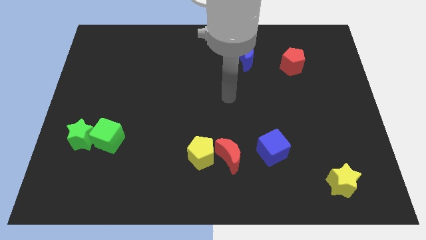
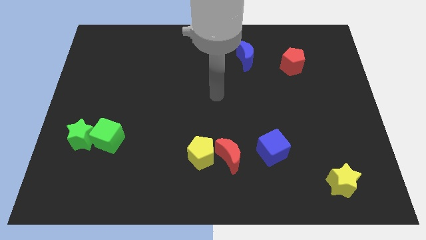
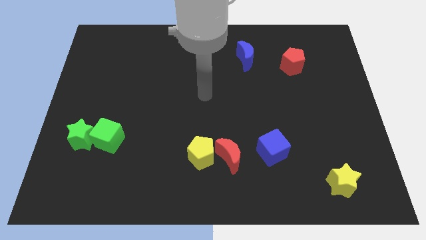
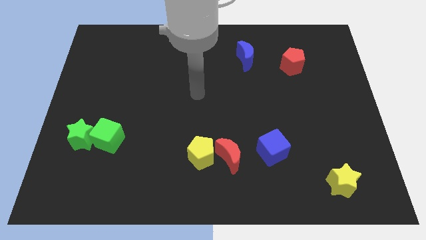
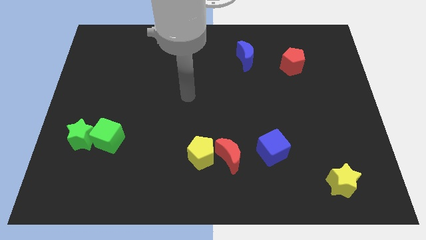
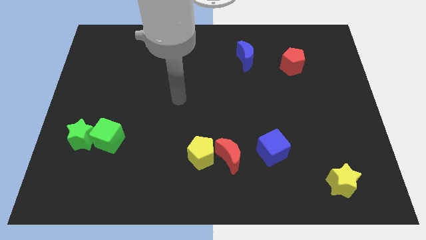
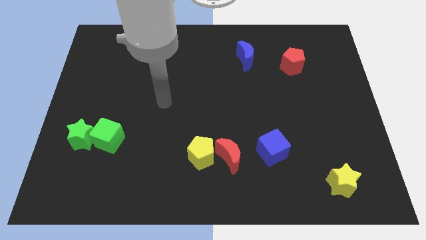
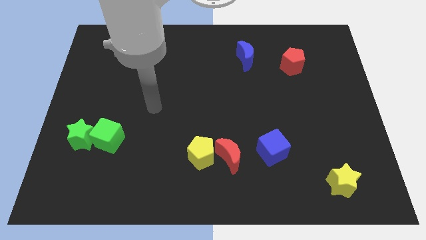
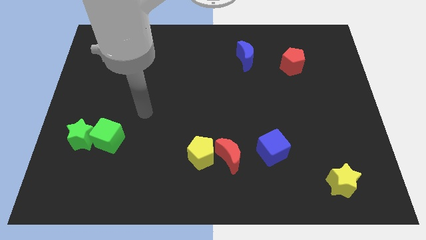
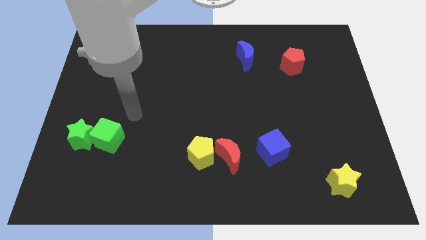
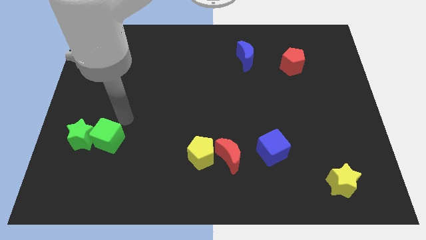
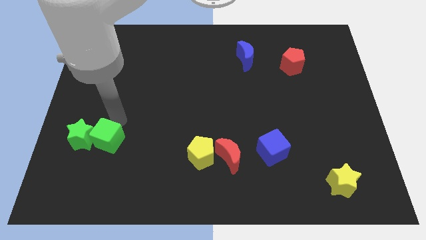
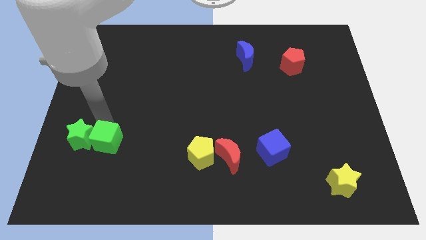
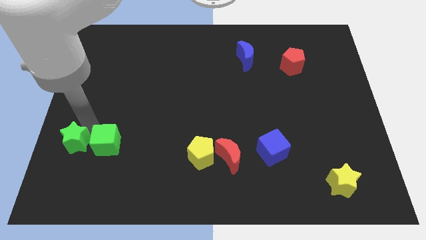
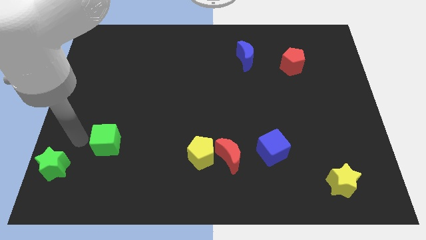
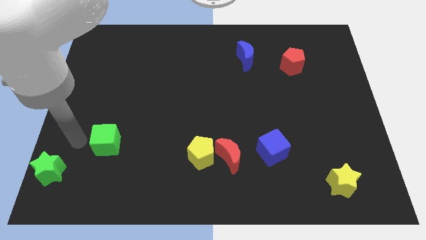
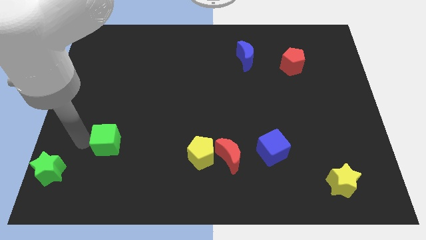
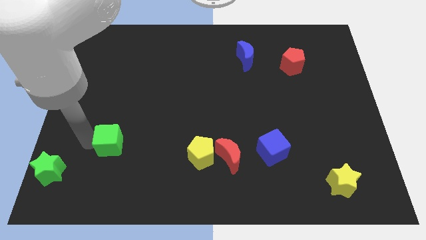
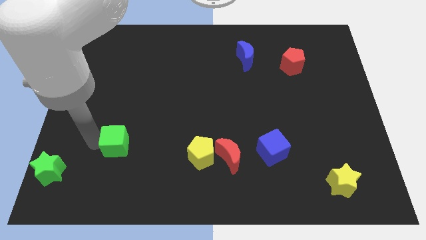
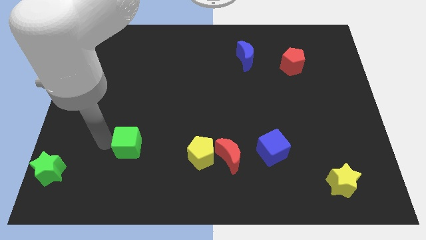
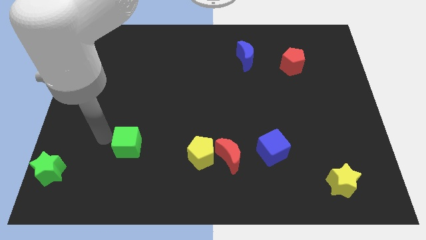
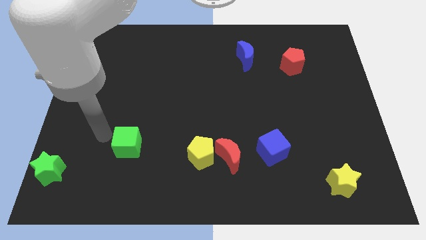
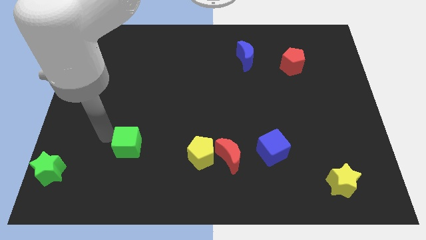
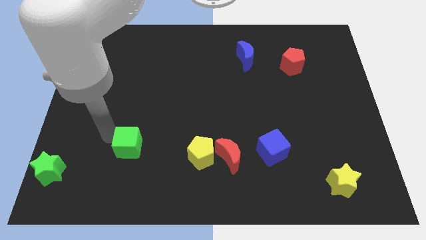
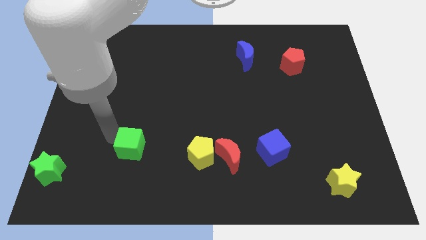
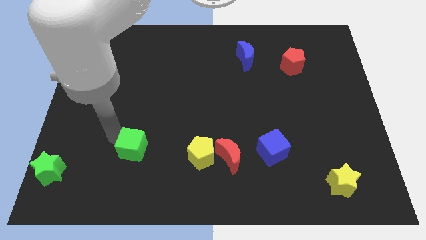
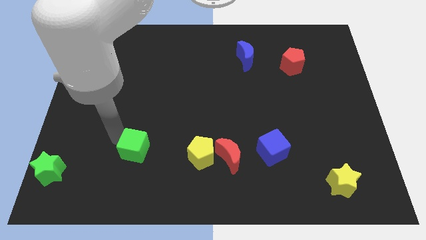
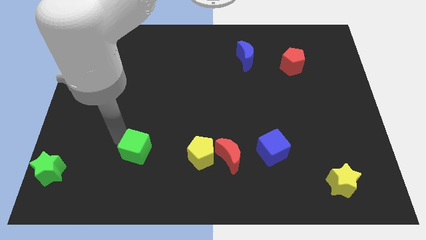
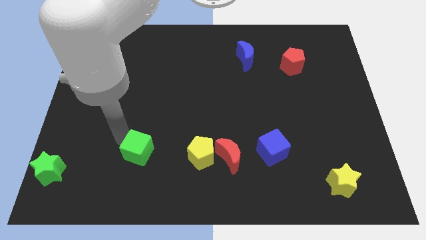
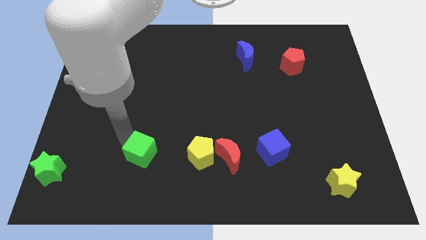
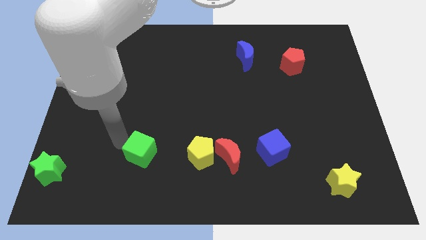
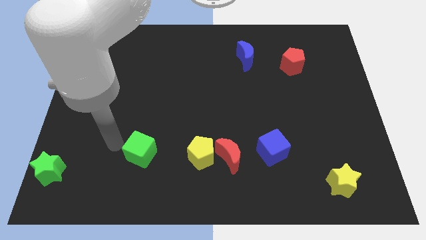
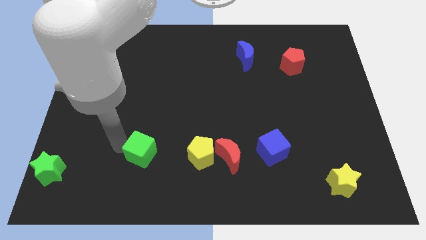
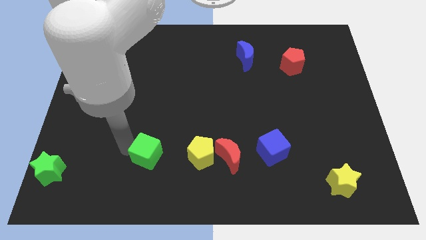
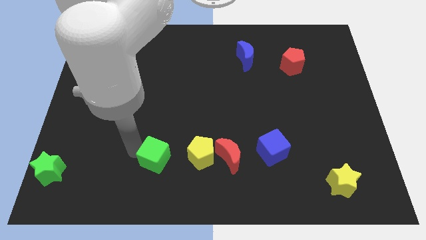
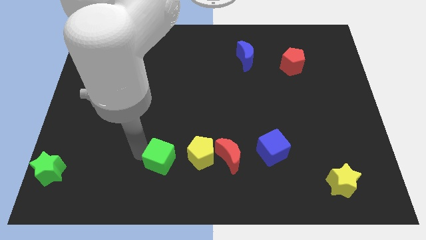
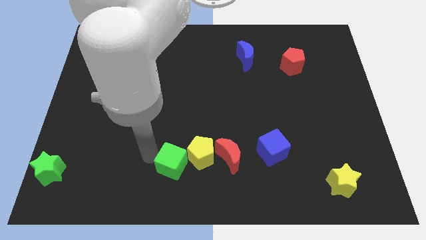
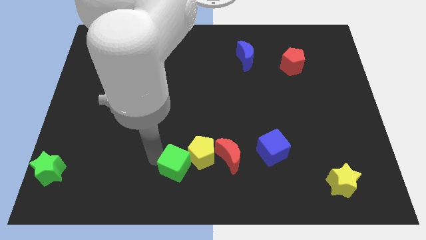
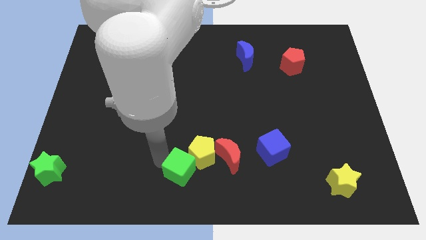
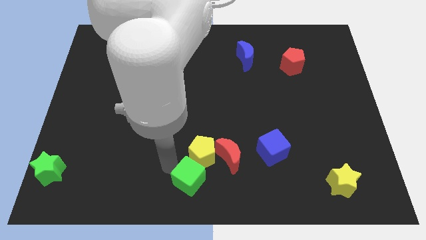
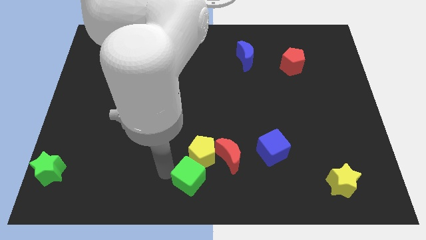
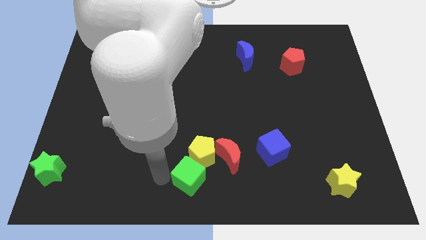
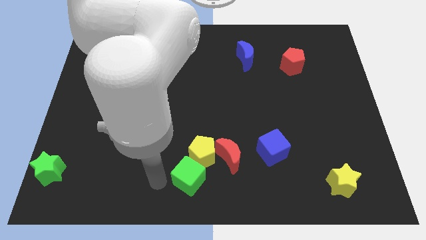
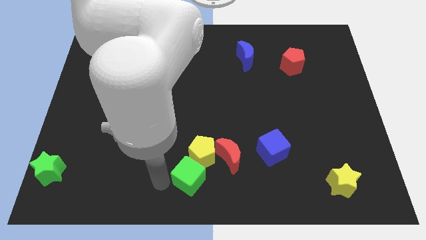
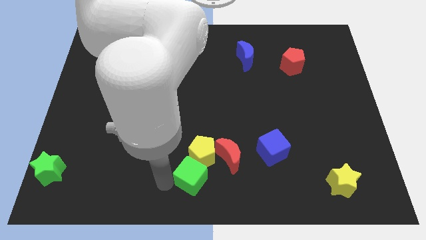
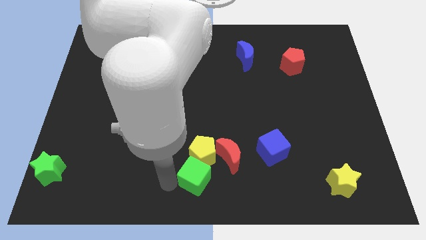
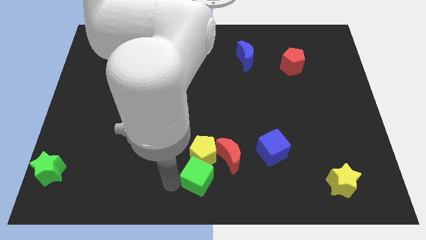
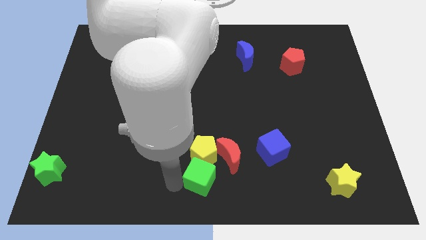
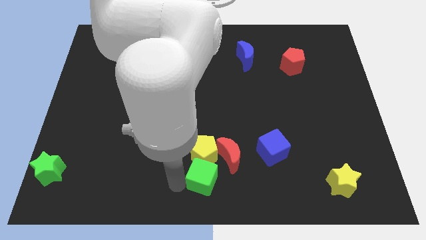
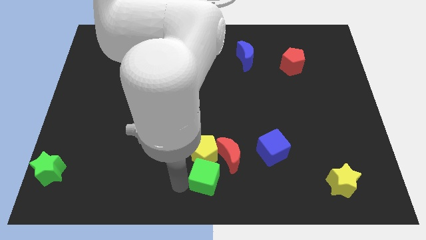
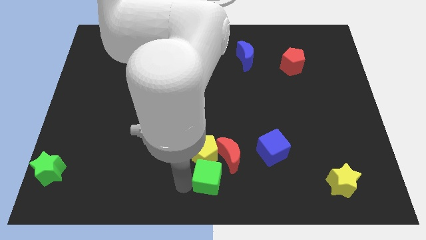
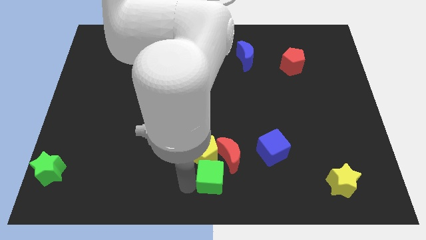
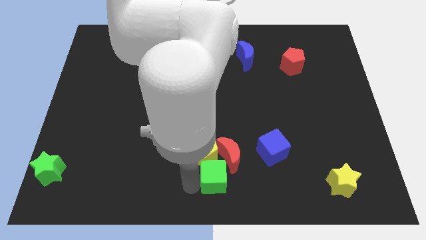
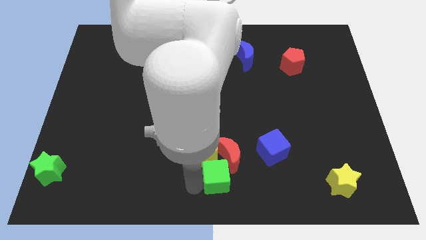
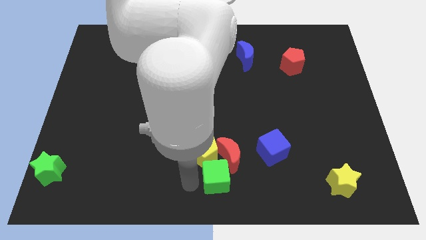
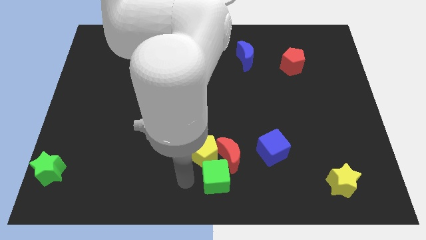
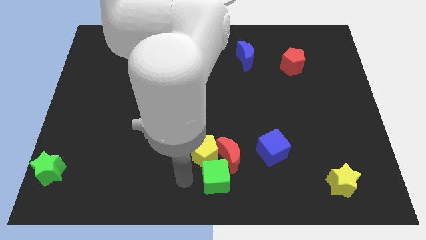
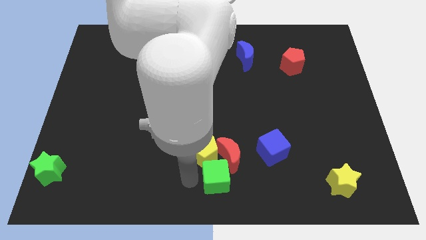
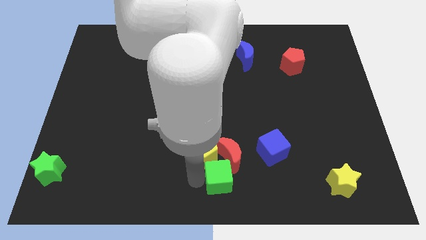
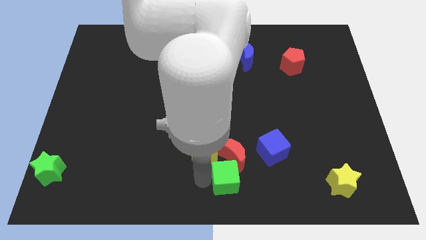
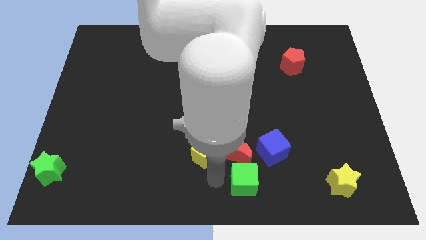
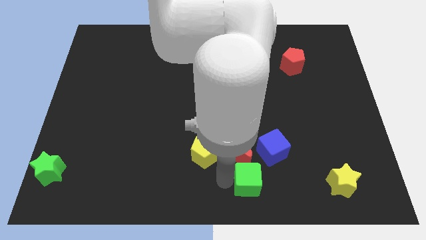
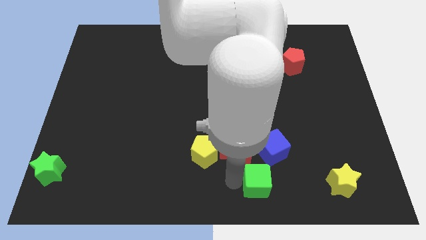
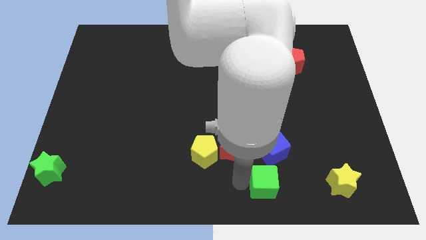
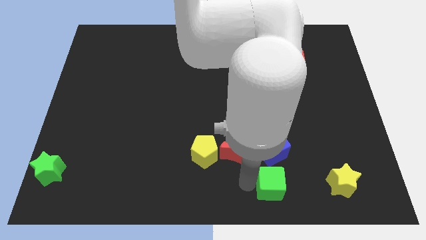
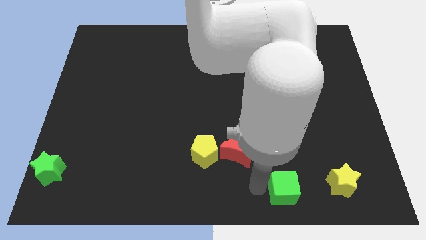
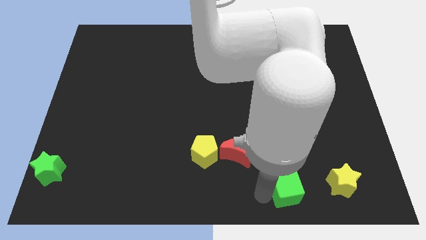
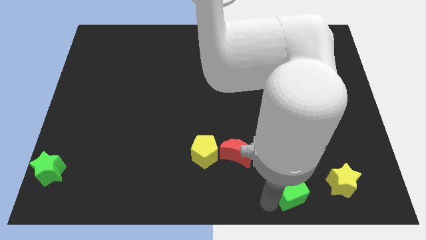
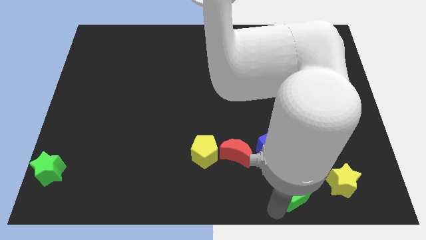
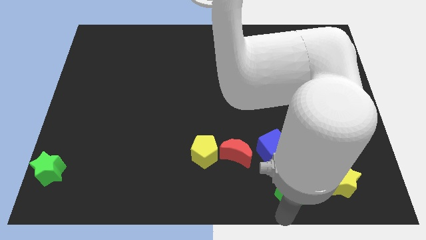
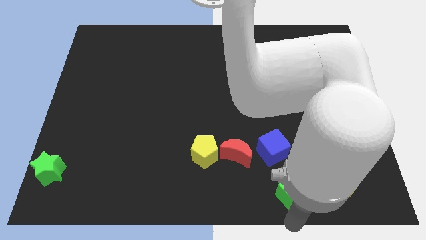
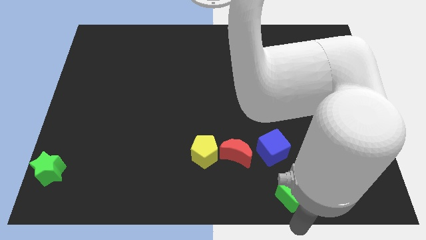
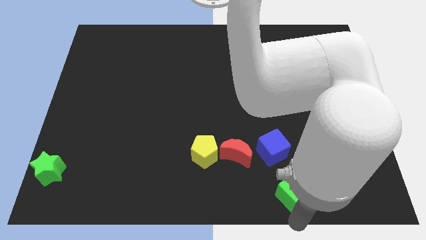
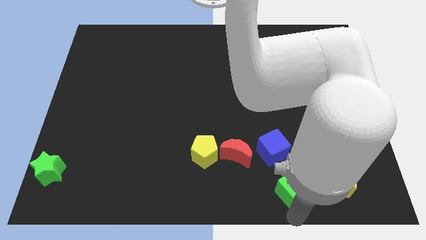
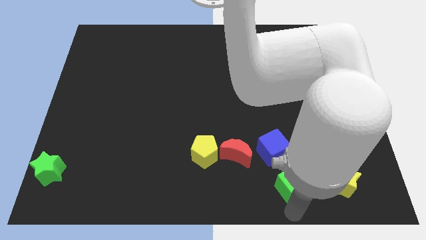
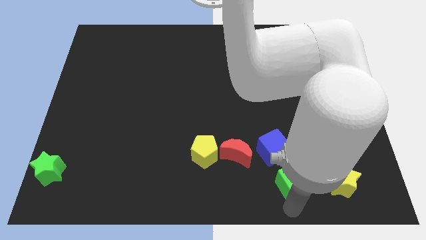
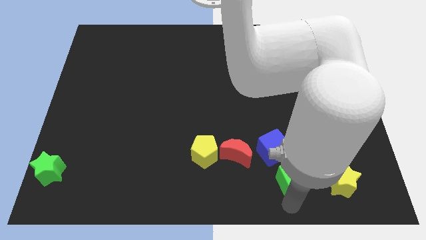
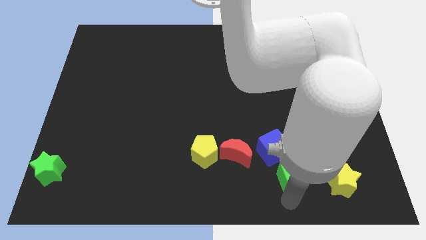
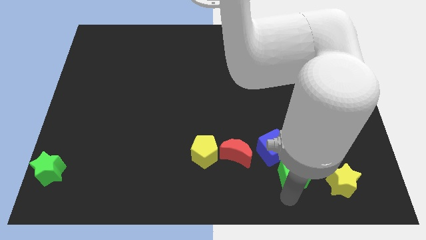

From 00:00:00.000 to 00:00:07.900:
slide the green cube to the right side of the red moon
